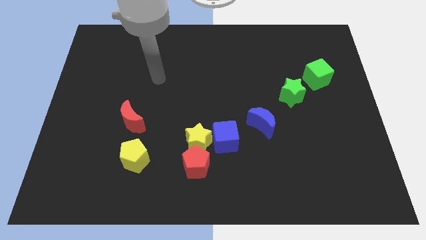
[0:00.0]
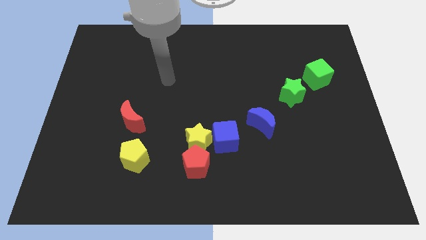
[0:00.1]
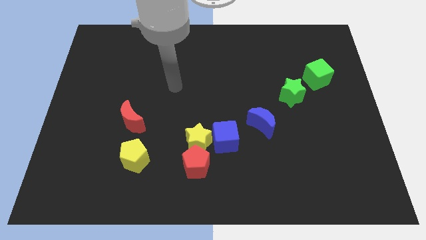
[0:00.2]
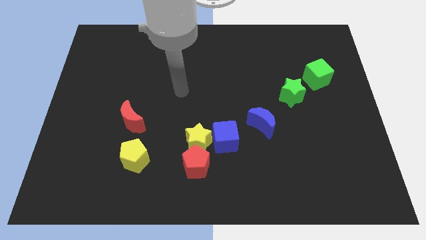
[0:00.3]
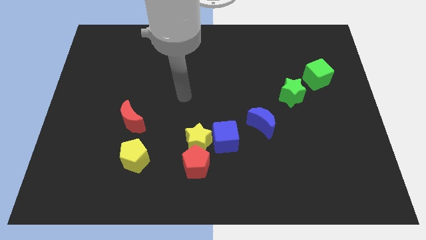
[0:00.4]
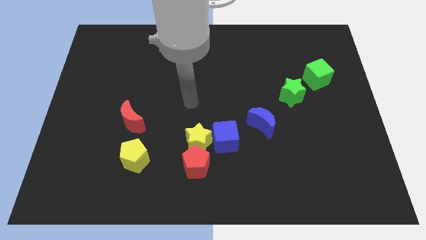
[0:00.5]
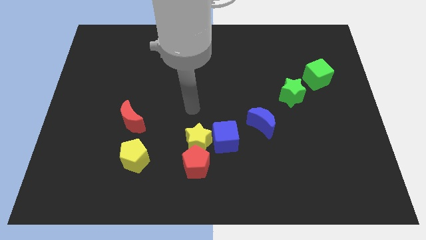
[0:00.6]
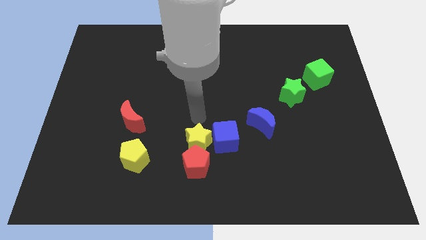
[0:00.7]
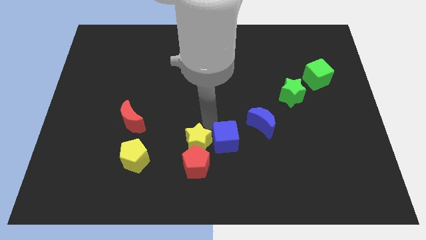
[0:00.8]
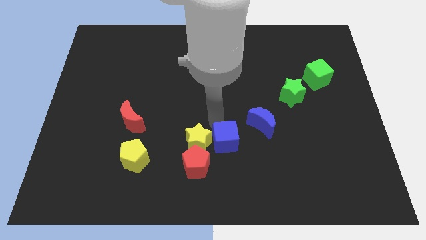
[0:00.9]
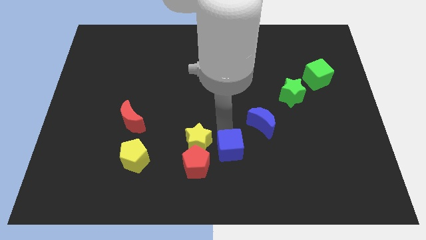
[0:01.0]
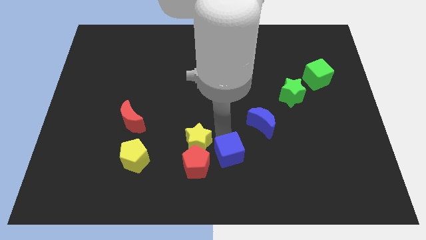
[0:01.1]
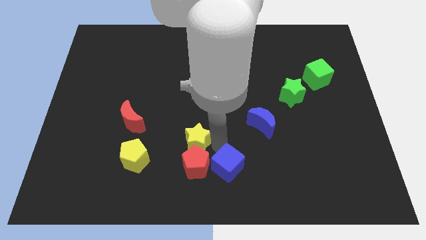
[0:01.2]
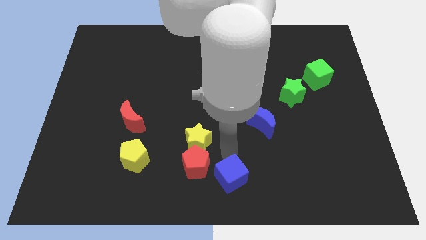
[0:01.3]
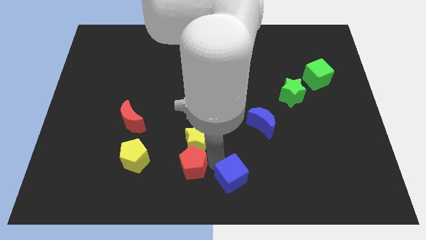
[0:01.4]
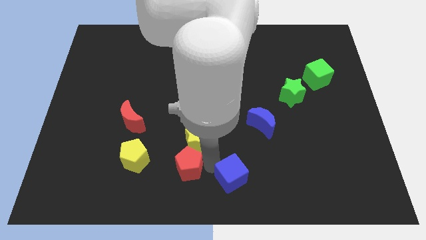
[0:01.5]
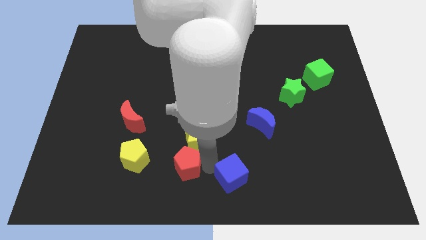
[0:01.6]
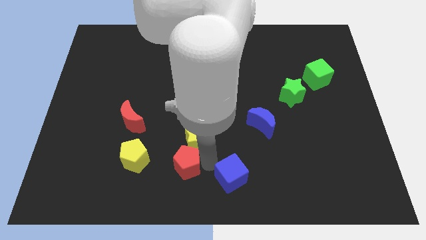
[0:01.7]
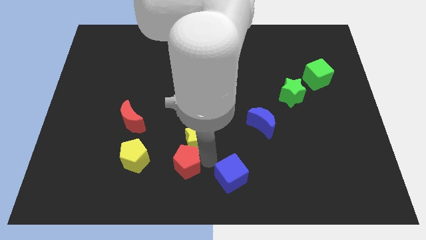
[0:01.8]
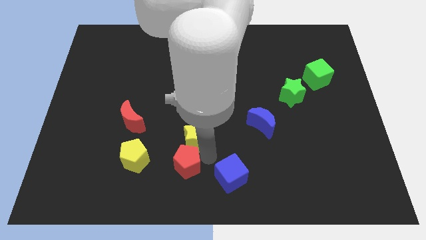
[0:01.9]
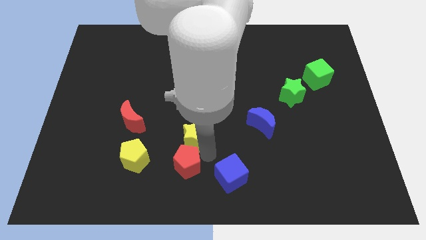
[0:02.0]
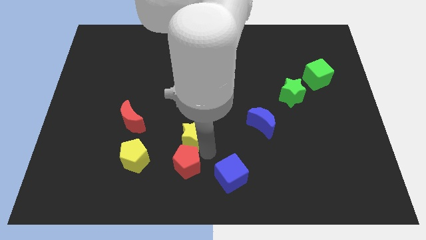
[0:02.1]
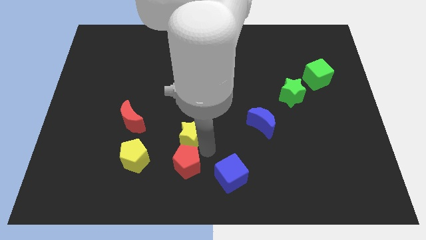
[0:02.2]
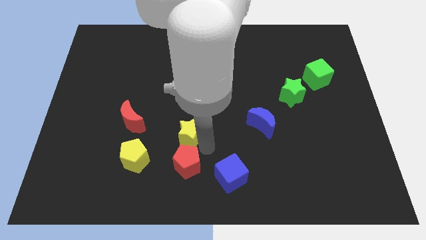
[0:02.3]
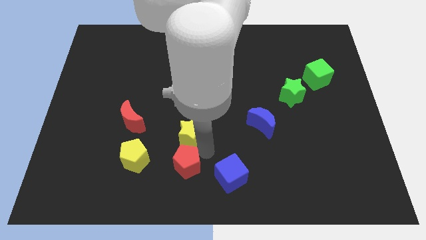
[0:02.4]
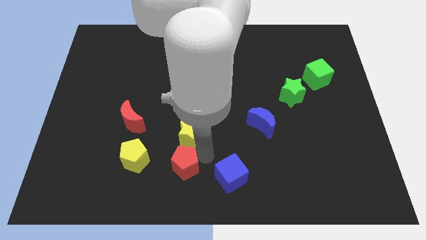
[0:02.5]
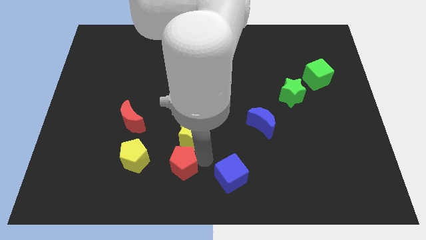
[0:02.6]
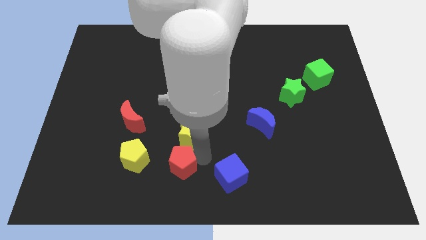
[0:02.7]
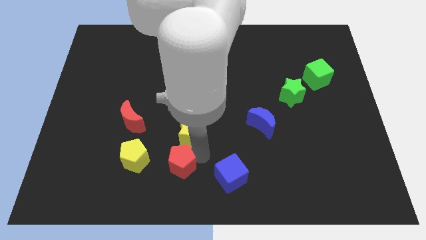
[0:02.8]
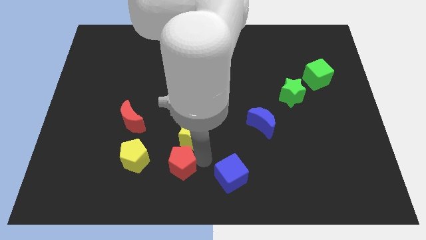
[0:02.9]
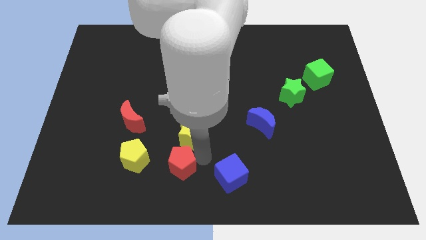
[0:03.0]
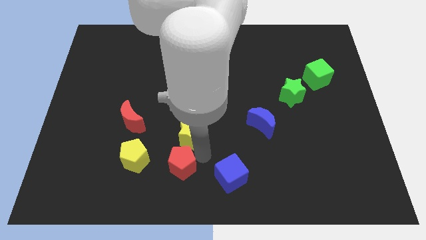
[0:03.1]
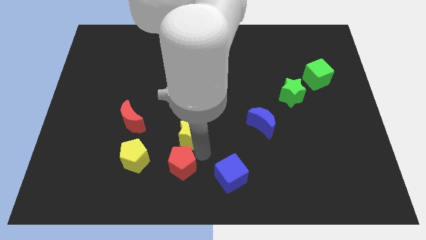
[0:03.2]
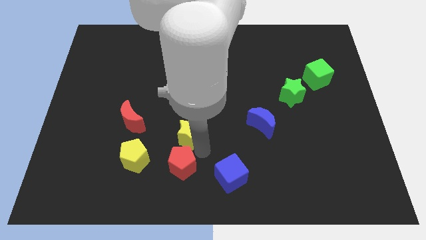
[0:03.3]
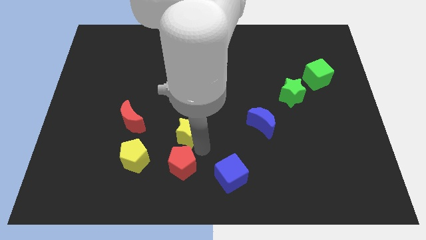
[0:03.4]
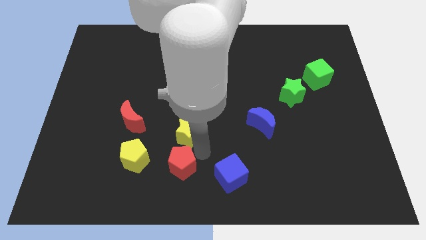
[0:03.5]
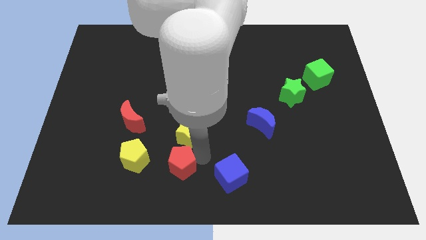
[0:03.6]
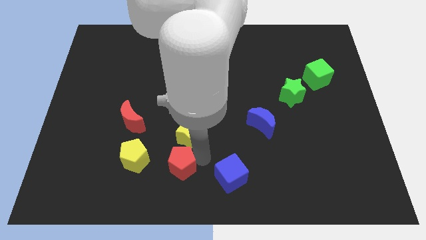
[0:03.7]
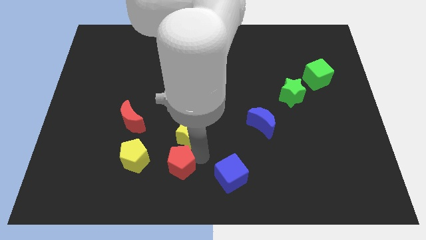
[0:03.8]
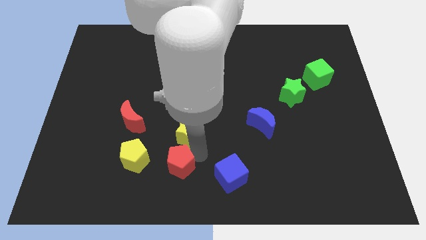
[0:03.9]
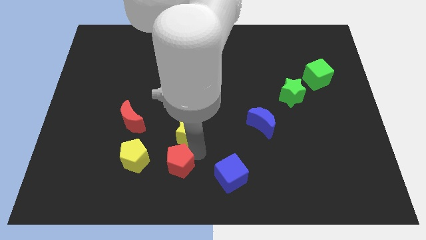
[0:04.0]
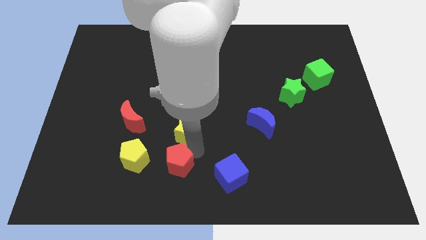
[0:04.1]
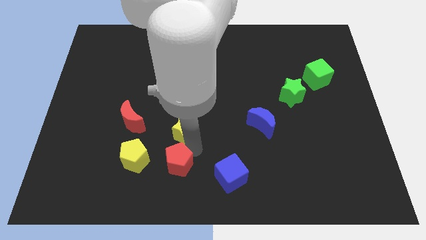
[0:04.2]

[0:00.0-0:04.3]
pull the yellow star apart from the blue cube and red pentagon

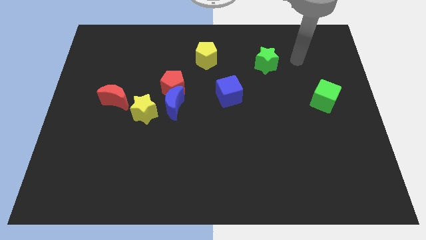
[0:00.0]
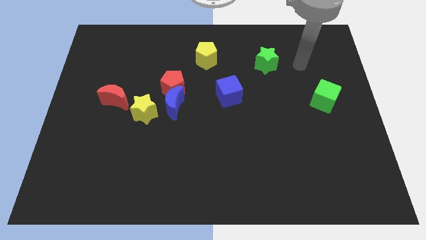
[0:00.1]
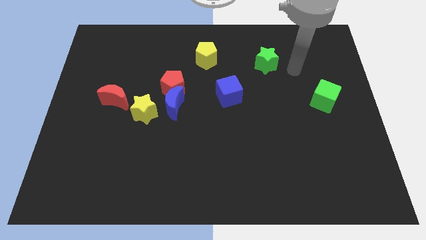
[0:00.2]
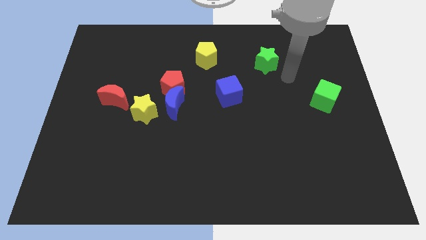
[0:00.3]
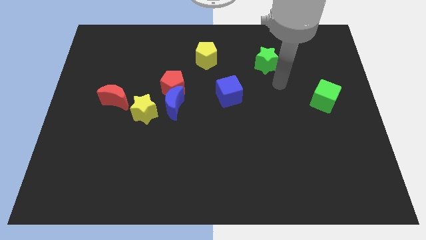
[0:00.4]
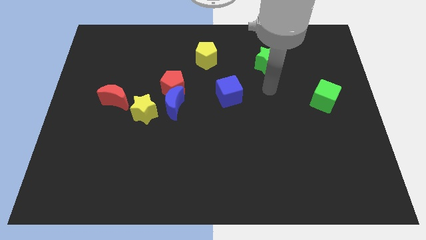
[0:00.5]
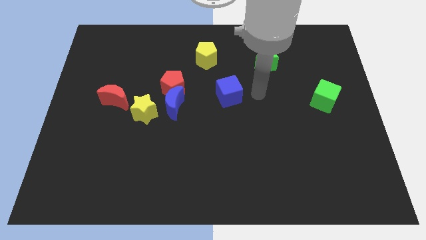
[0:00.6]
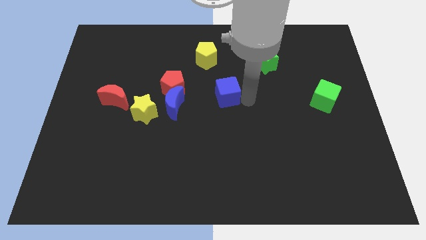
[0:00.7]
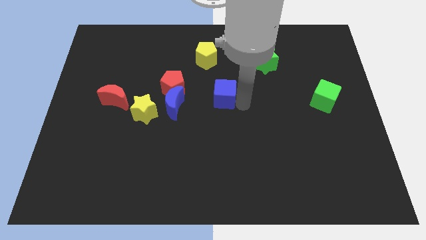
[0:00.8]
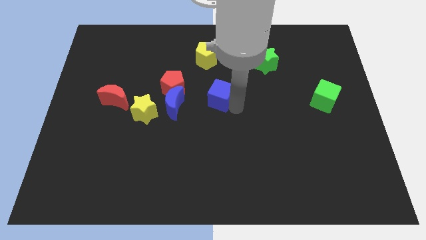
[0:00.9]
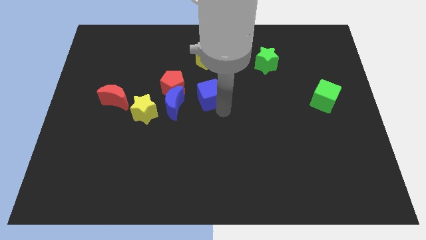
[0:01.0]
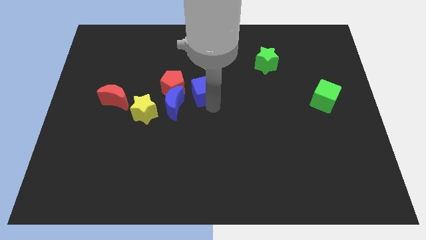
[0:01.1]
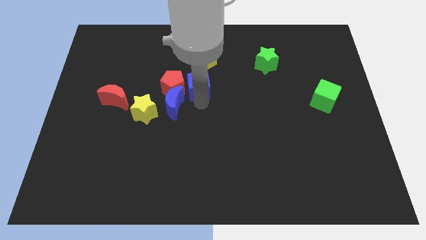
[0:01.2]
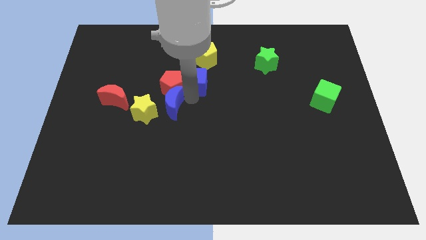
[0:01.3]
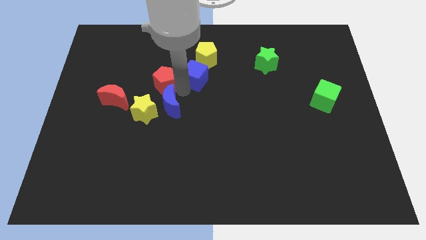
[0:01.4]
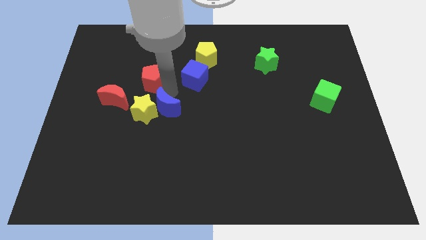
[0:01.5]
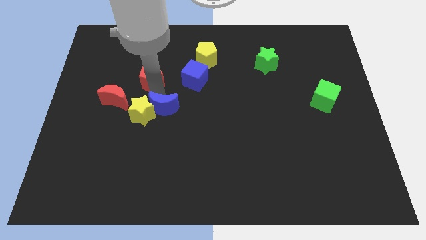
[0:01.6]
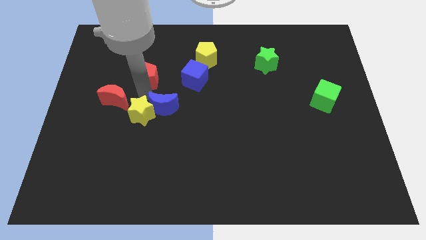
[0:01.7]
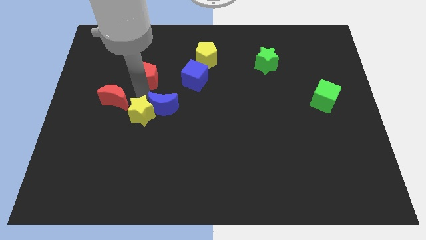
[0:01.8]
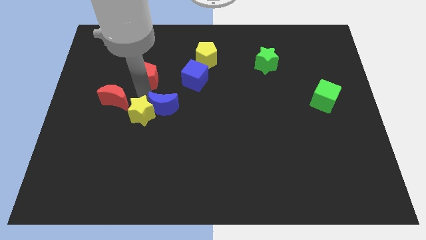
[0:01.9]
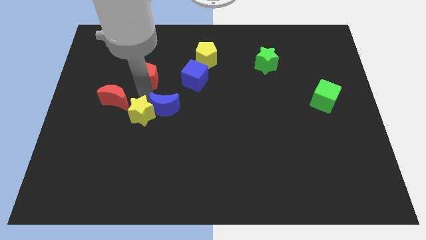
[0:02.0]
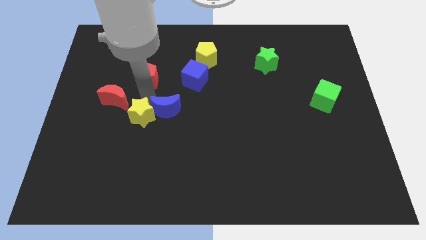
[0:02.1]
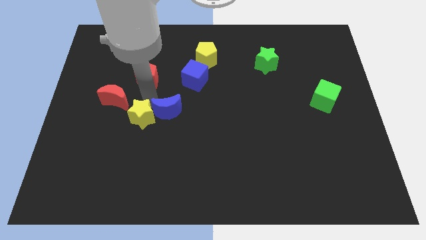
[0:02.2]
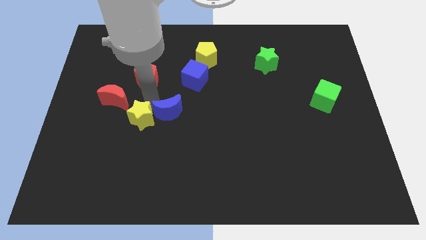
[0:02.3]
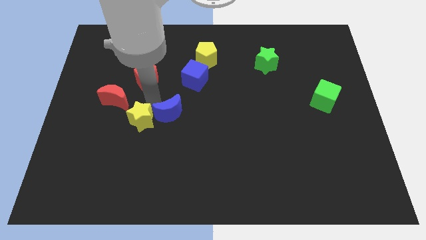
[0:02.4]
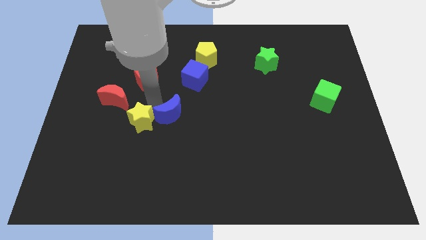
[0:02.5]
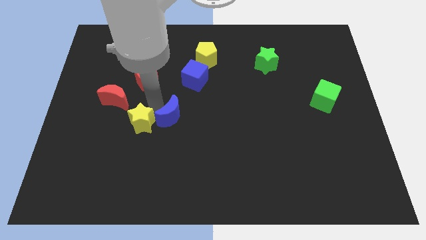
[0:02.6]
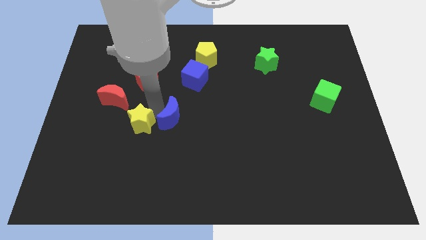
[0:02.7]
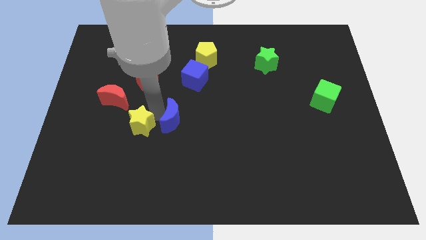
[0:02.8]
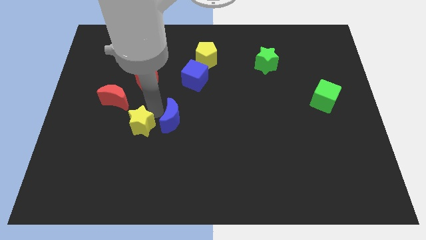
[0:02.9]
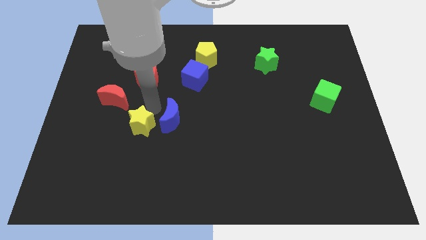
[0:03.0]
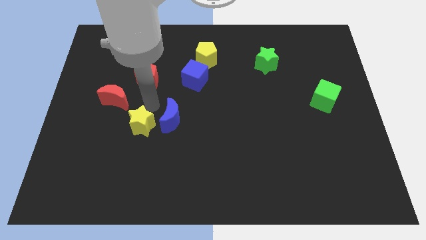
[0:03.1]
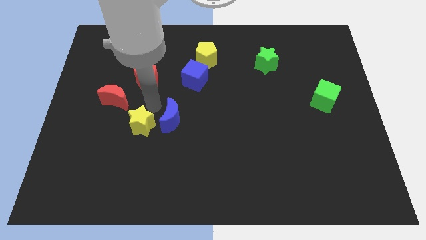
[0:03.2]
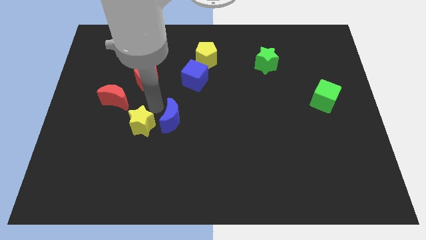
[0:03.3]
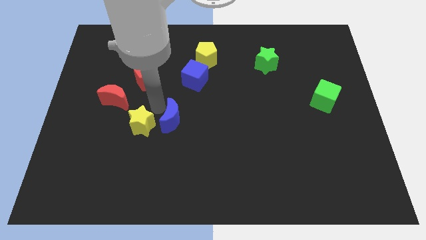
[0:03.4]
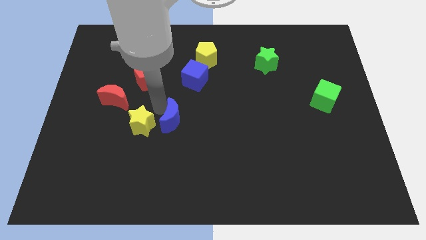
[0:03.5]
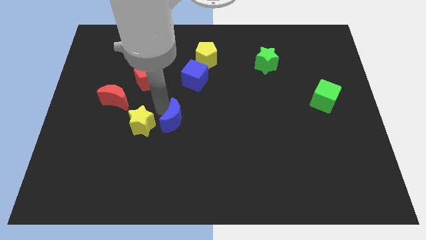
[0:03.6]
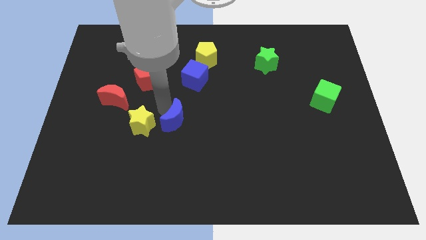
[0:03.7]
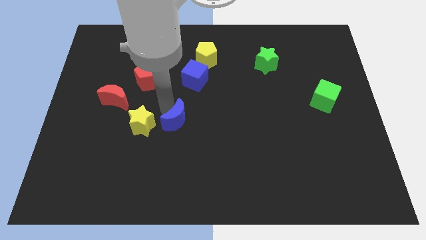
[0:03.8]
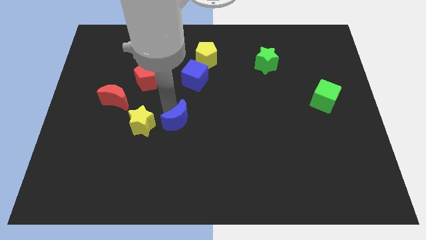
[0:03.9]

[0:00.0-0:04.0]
move the blue moon away from the red pentagon and yellow star

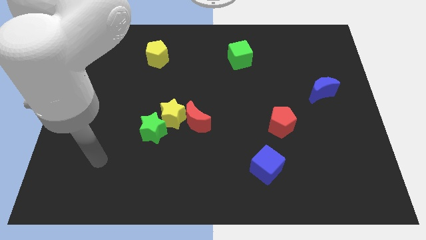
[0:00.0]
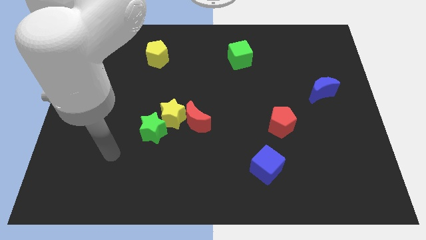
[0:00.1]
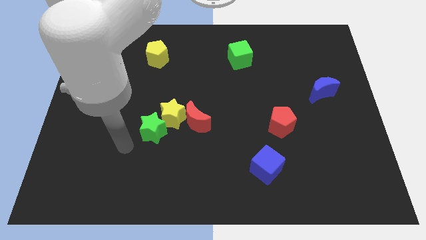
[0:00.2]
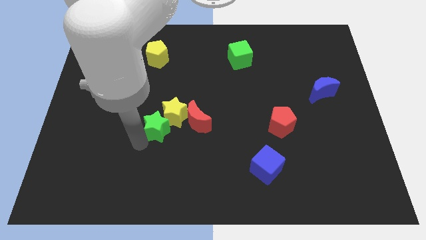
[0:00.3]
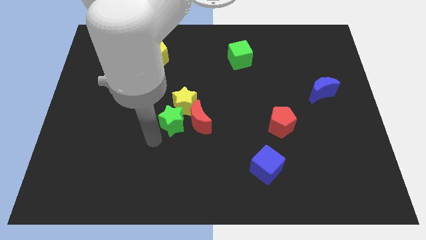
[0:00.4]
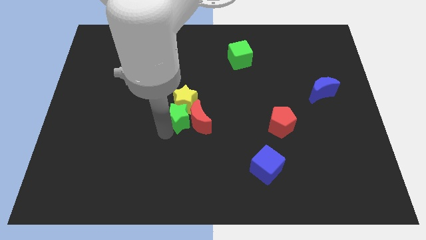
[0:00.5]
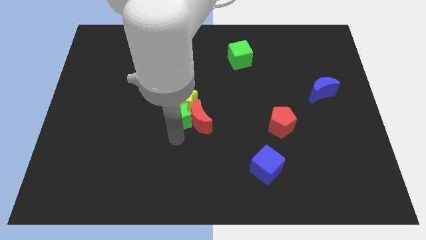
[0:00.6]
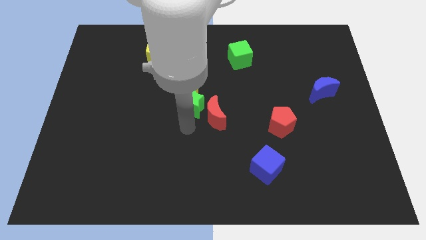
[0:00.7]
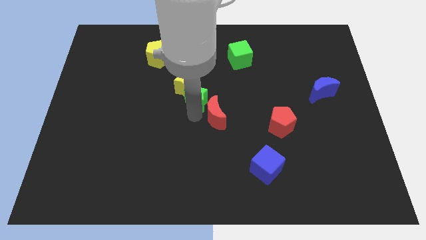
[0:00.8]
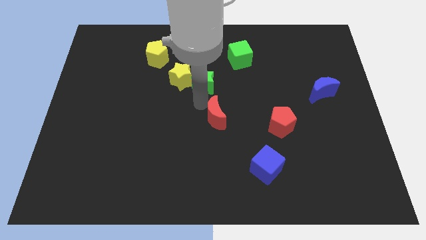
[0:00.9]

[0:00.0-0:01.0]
pull the yellow star apart from the red moon and green star

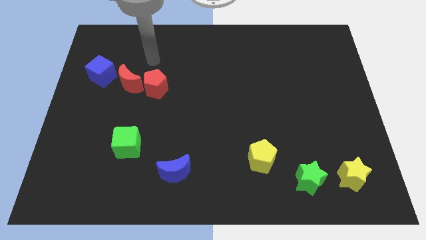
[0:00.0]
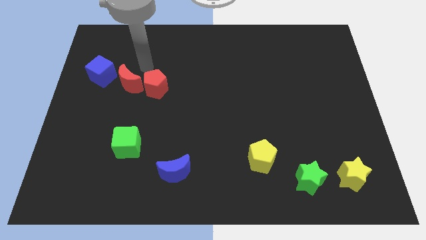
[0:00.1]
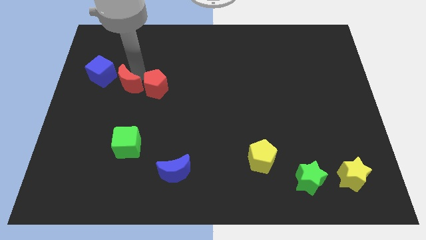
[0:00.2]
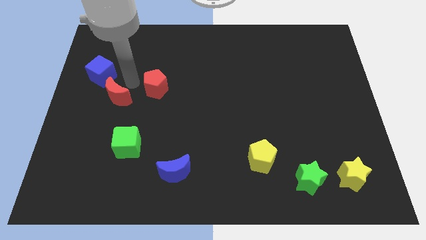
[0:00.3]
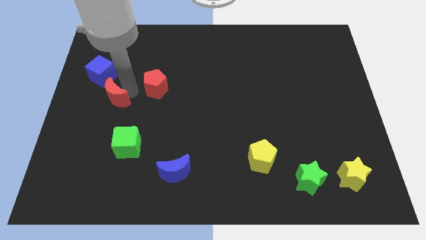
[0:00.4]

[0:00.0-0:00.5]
separate the red pentagon from the red moon
